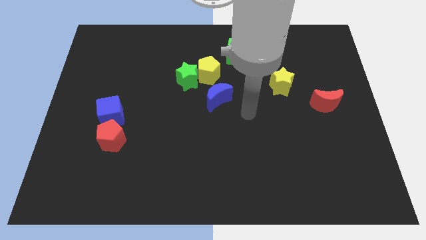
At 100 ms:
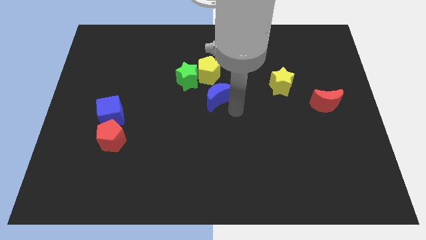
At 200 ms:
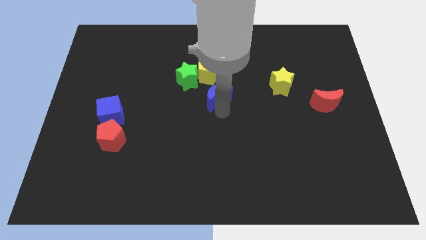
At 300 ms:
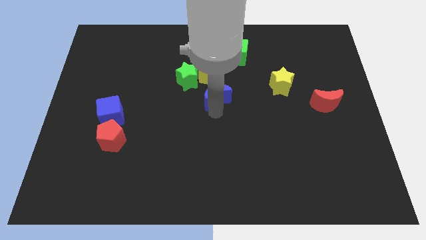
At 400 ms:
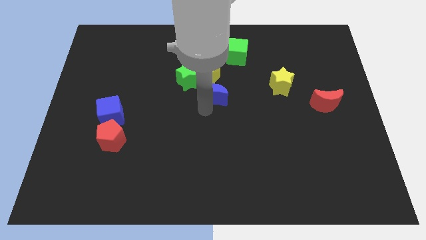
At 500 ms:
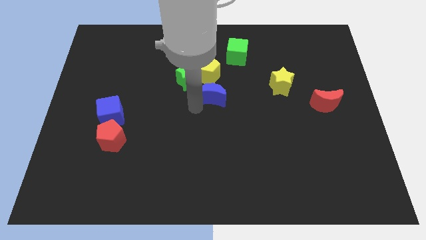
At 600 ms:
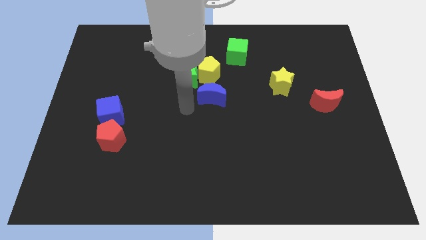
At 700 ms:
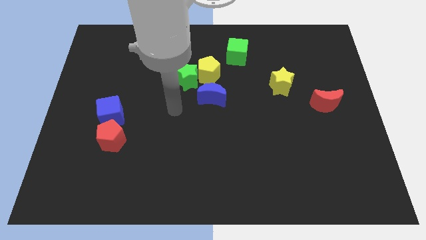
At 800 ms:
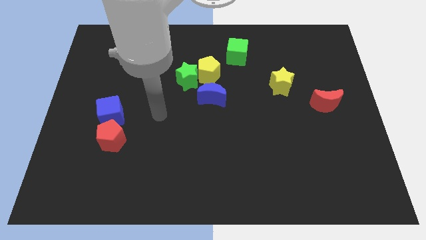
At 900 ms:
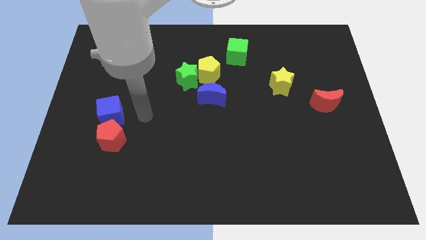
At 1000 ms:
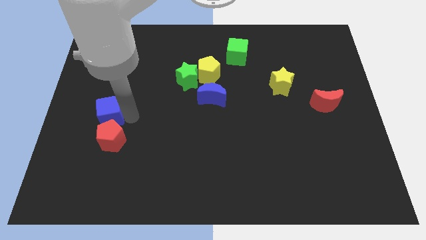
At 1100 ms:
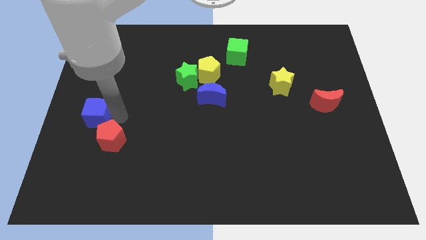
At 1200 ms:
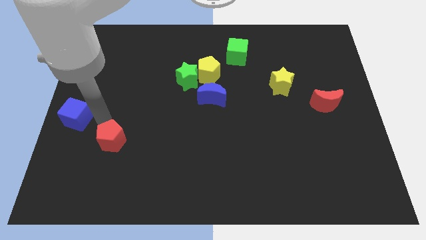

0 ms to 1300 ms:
separate the red pentagon from the blue cube

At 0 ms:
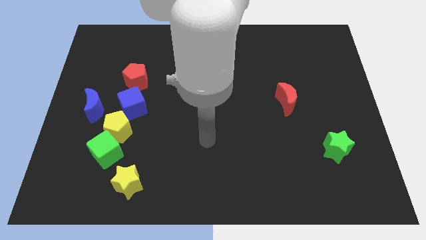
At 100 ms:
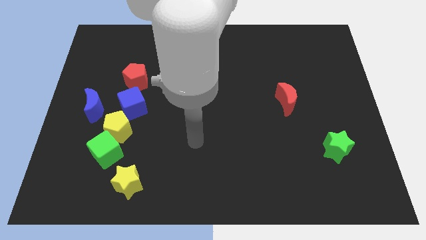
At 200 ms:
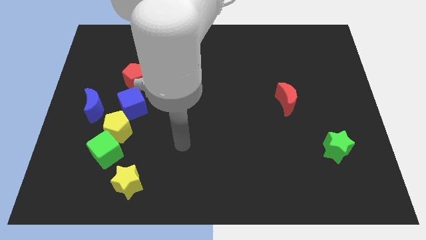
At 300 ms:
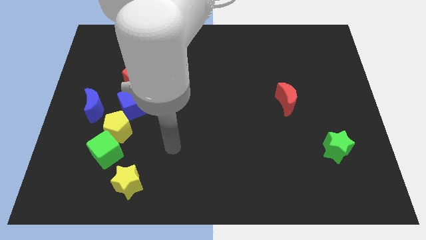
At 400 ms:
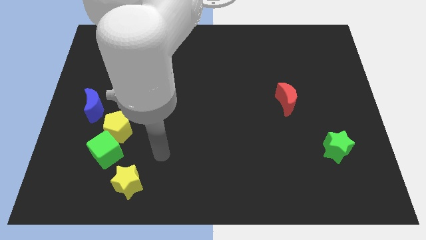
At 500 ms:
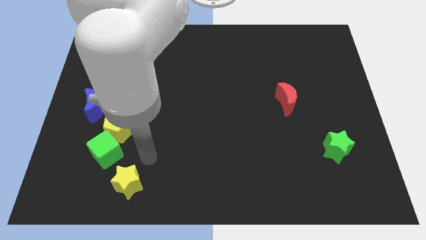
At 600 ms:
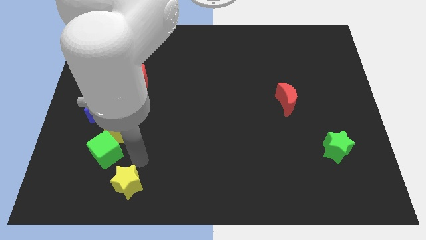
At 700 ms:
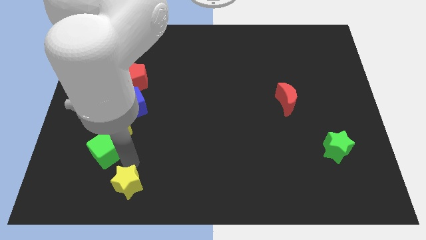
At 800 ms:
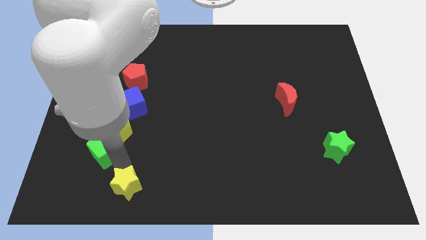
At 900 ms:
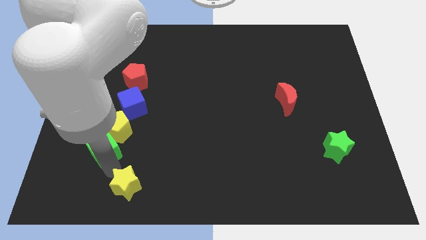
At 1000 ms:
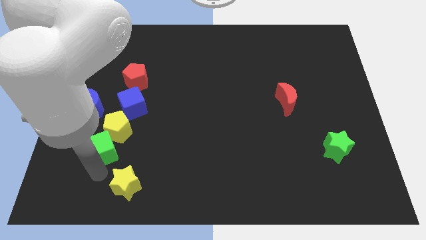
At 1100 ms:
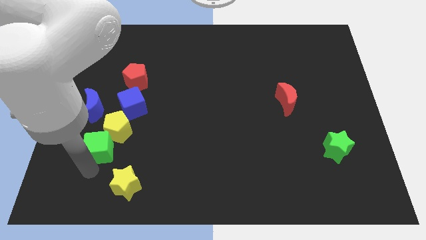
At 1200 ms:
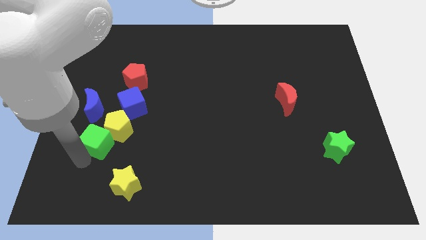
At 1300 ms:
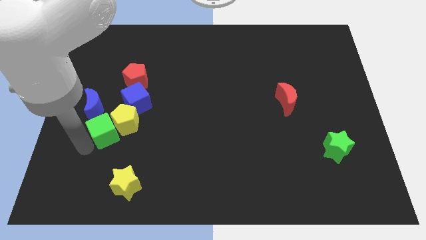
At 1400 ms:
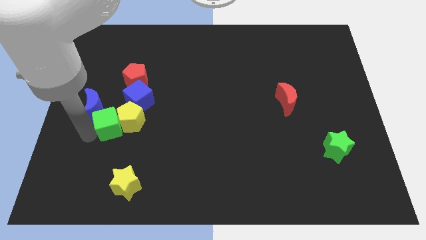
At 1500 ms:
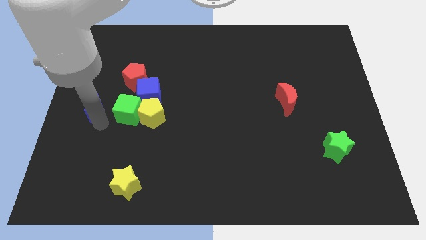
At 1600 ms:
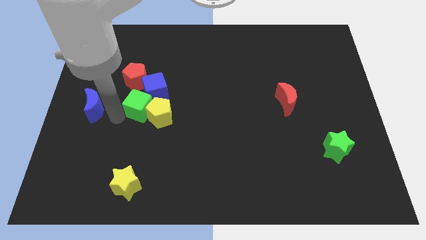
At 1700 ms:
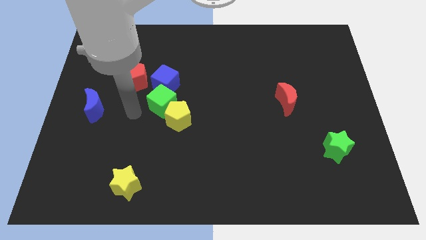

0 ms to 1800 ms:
separate the yellow pentagon from the green cube, blue cube, and blue moon

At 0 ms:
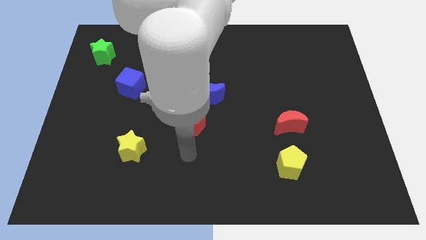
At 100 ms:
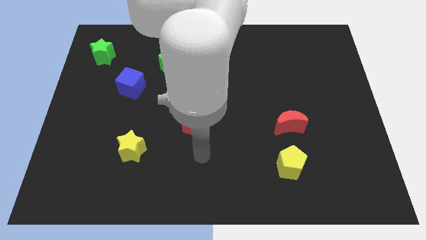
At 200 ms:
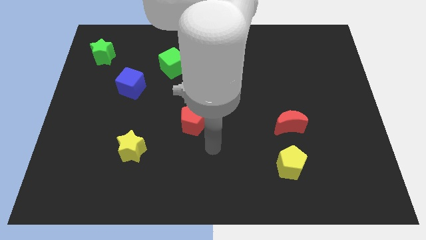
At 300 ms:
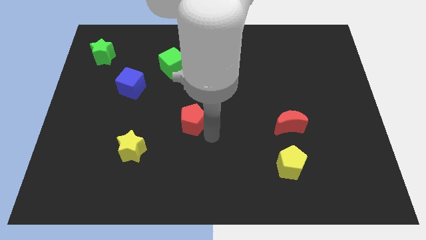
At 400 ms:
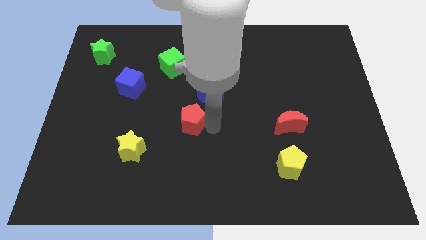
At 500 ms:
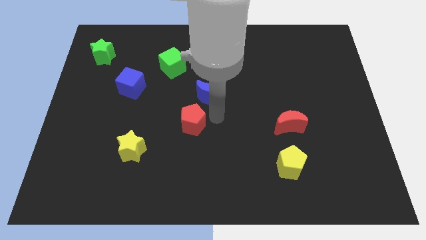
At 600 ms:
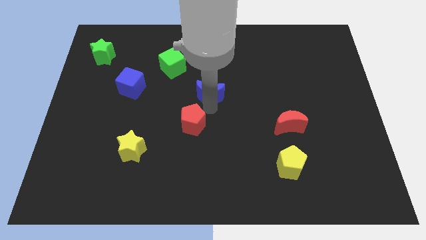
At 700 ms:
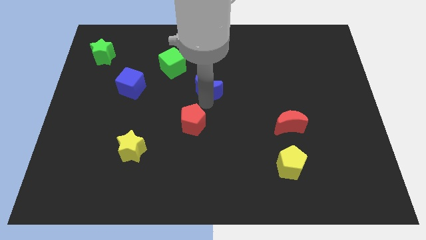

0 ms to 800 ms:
separate the red pentagon from the blue moon

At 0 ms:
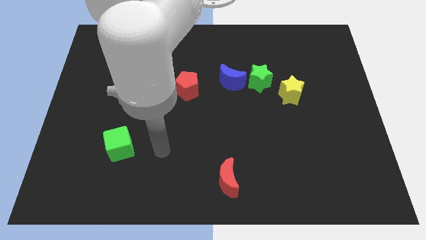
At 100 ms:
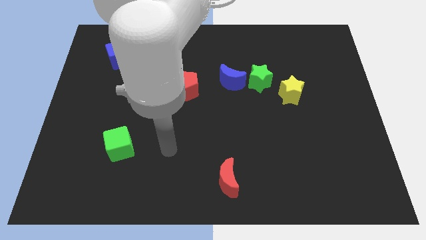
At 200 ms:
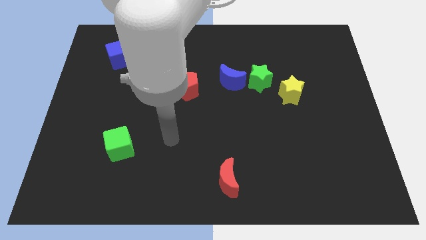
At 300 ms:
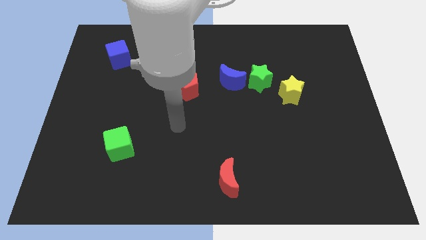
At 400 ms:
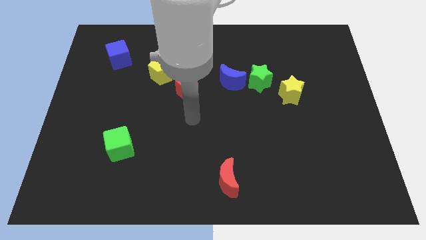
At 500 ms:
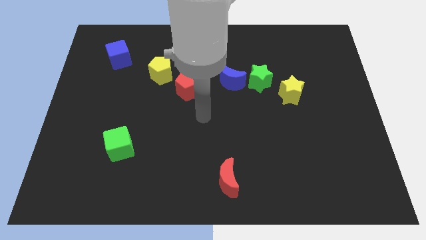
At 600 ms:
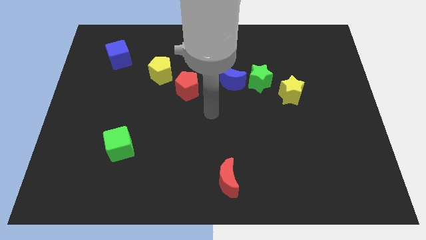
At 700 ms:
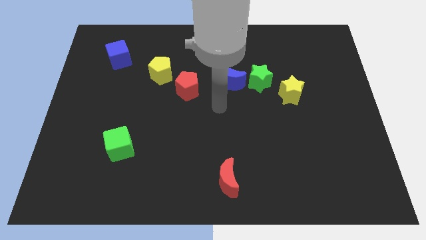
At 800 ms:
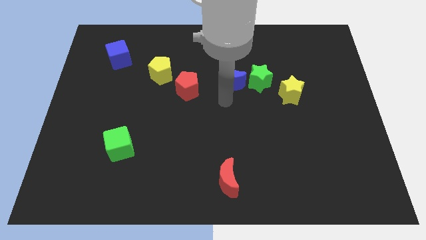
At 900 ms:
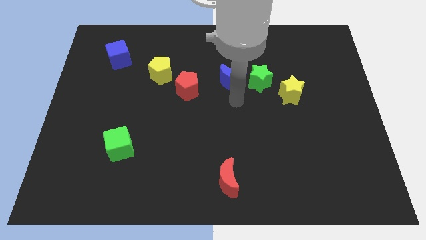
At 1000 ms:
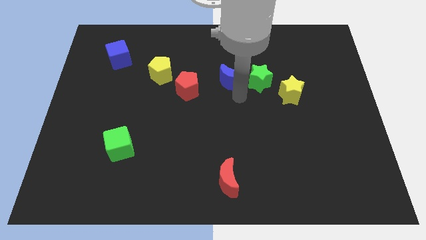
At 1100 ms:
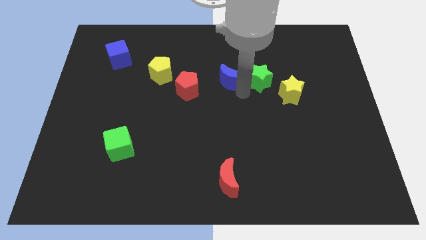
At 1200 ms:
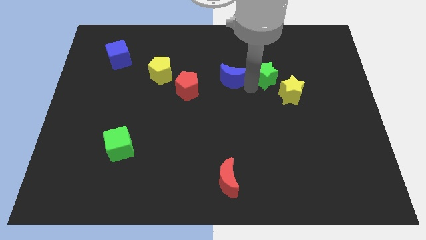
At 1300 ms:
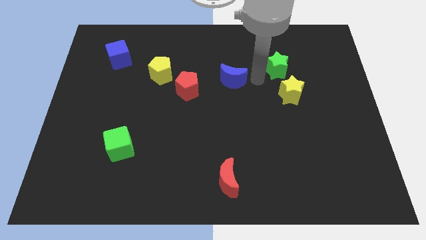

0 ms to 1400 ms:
separate the blue moon from the green star

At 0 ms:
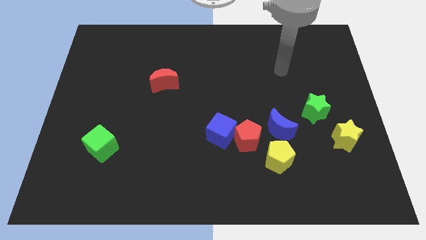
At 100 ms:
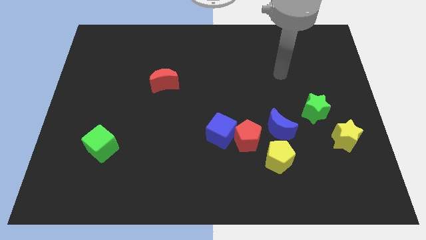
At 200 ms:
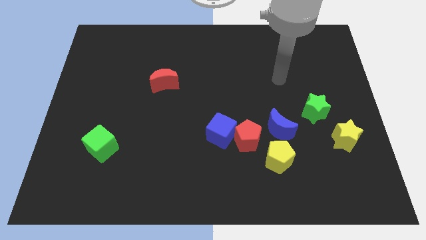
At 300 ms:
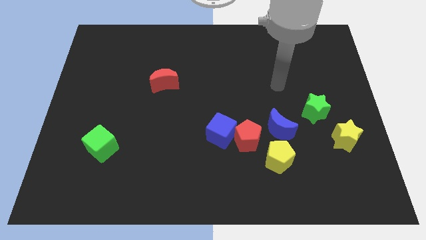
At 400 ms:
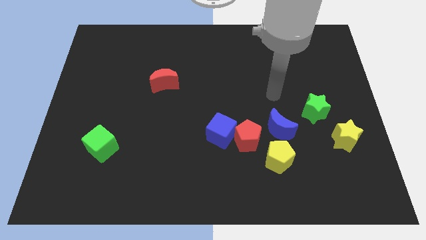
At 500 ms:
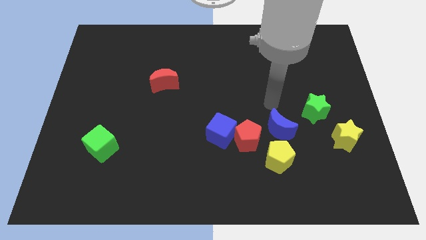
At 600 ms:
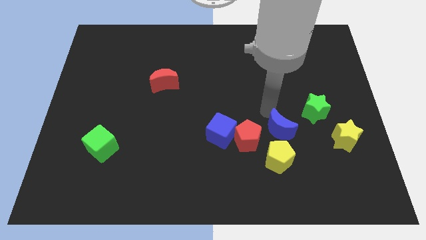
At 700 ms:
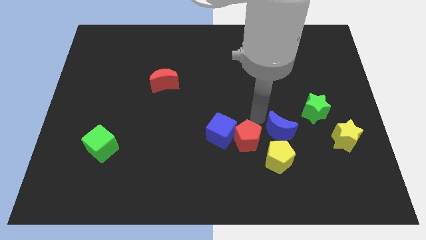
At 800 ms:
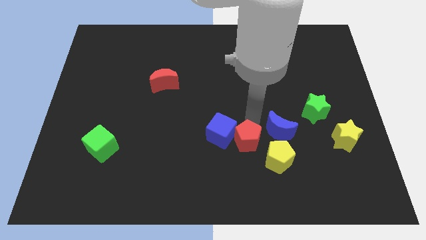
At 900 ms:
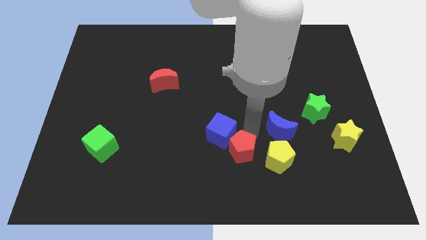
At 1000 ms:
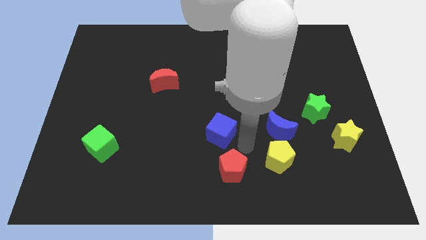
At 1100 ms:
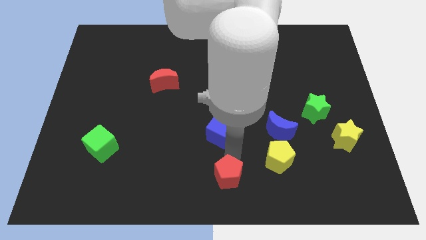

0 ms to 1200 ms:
separate the blue cube from the red pentagon

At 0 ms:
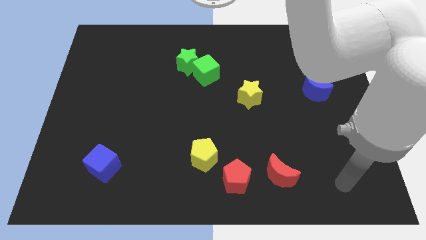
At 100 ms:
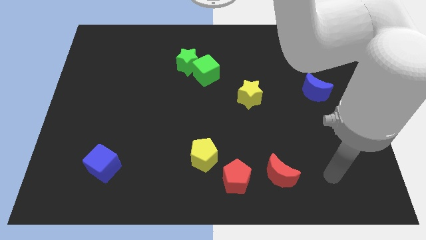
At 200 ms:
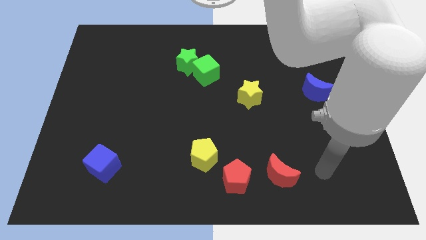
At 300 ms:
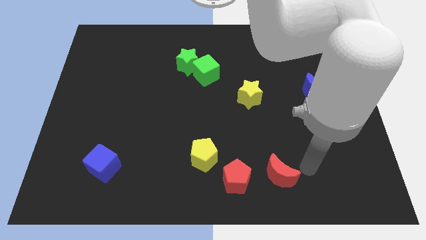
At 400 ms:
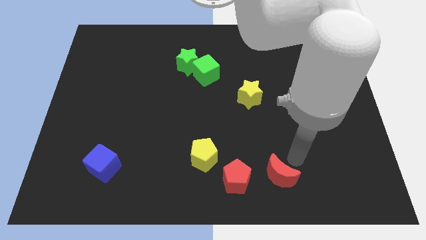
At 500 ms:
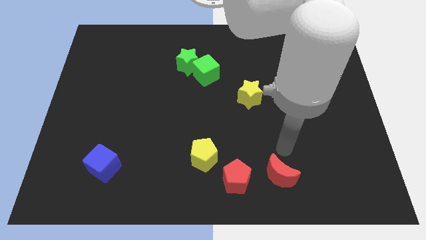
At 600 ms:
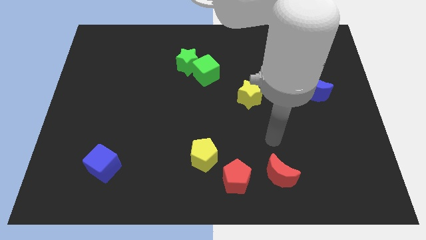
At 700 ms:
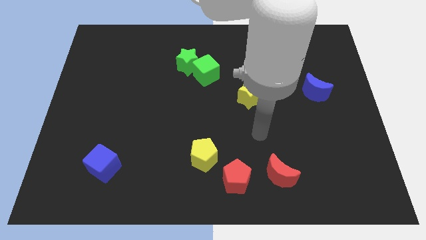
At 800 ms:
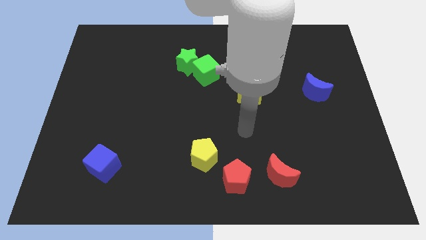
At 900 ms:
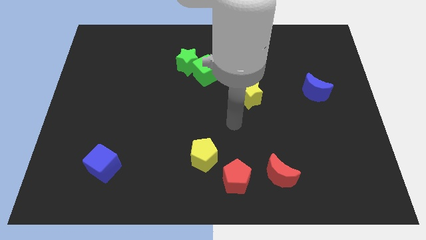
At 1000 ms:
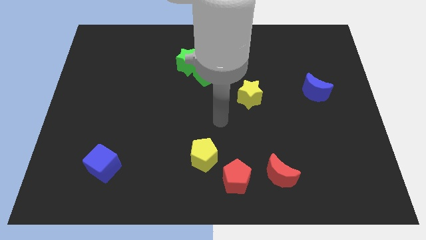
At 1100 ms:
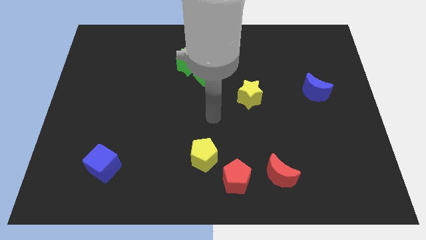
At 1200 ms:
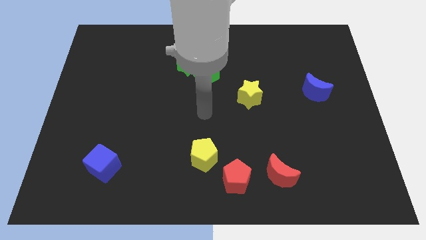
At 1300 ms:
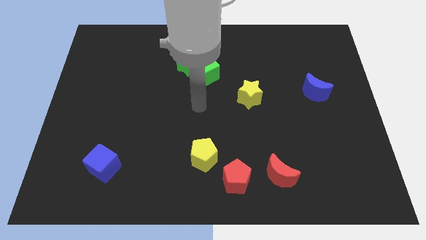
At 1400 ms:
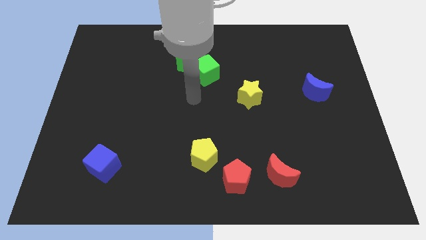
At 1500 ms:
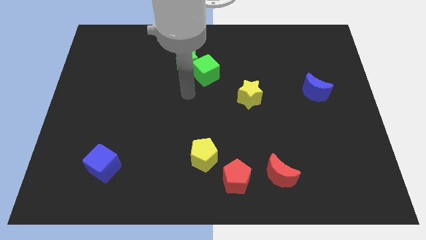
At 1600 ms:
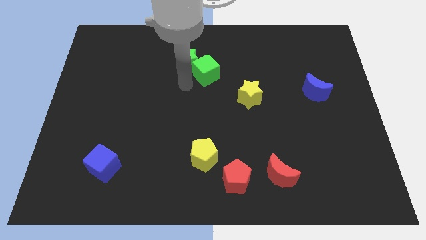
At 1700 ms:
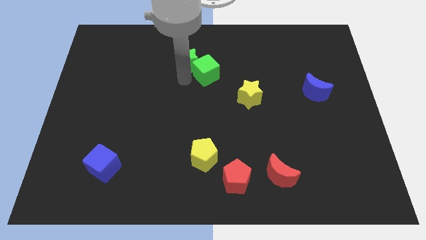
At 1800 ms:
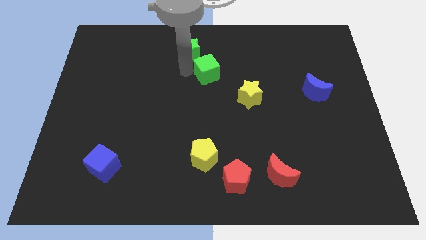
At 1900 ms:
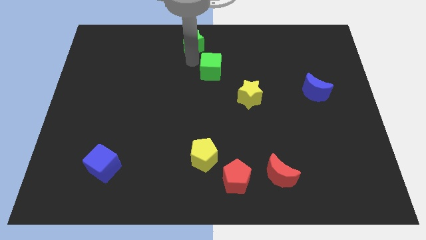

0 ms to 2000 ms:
move the green cube away from the green star

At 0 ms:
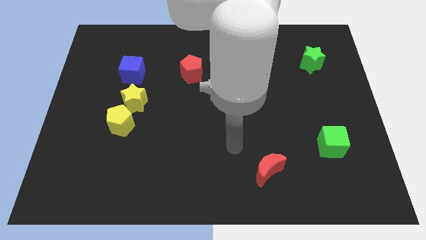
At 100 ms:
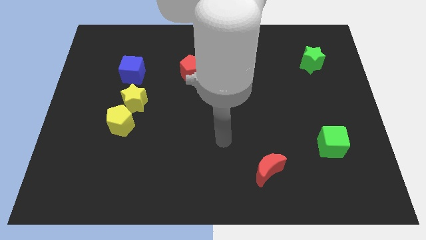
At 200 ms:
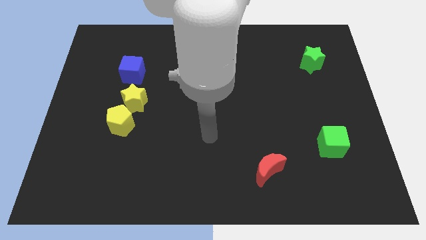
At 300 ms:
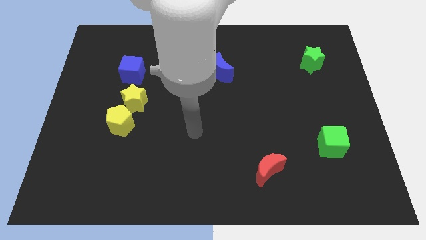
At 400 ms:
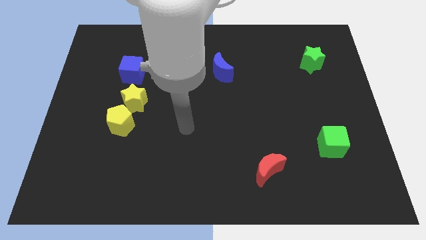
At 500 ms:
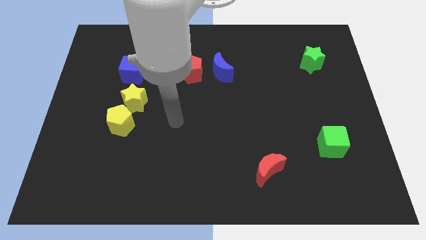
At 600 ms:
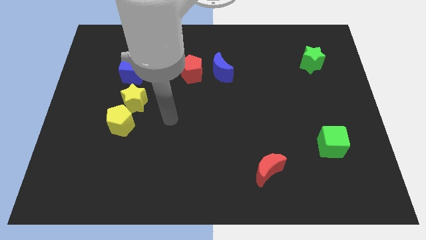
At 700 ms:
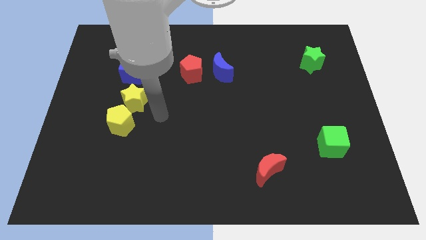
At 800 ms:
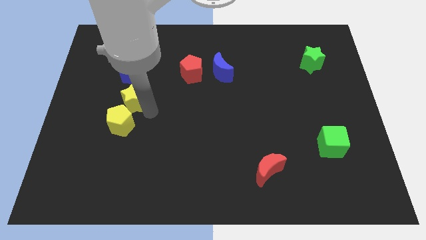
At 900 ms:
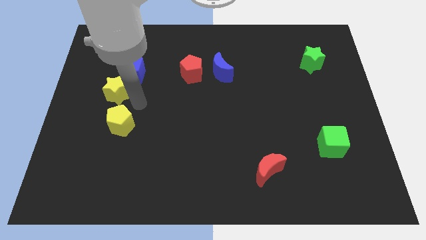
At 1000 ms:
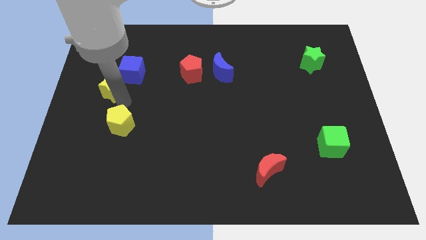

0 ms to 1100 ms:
separate the yellow pentagon from the yellow star
